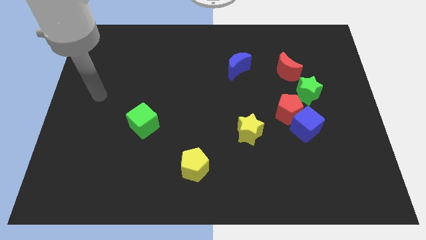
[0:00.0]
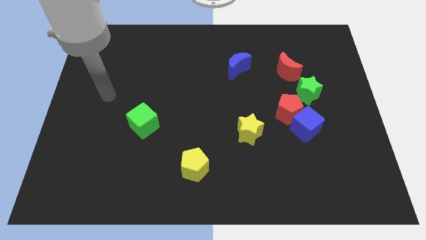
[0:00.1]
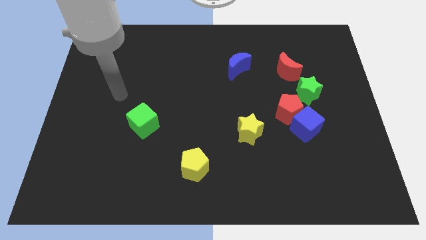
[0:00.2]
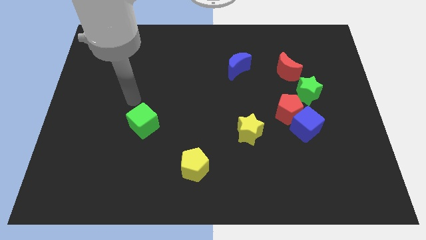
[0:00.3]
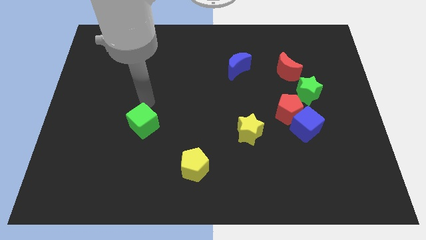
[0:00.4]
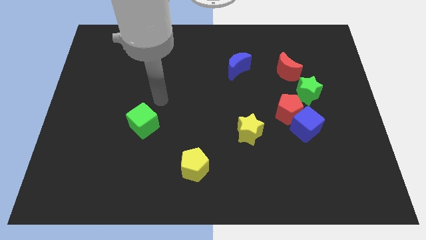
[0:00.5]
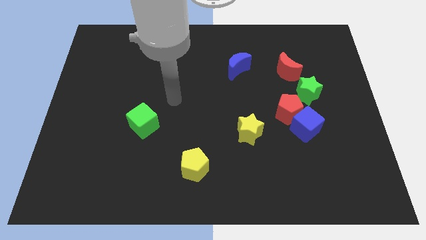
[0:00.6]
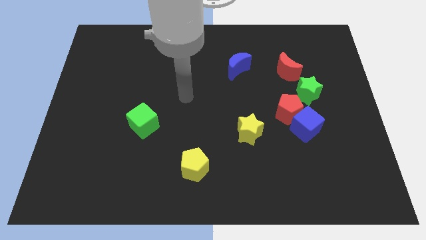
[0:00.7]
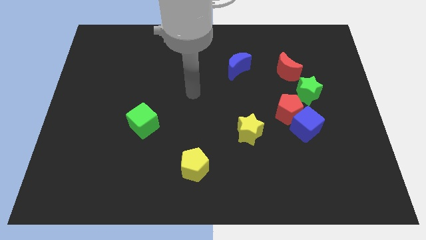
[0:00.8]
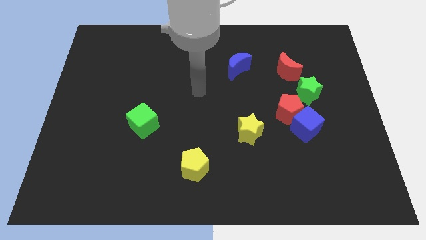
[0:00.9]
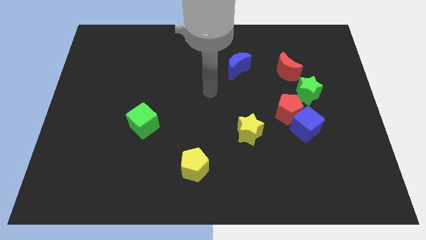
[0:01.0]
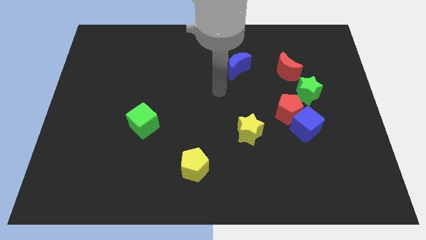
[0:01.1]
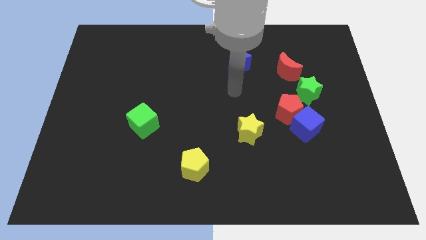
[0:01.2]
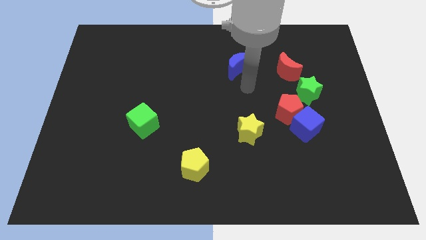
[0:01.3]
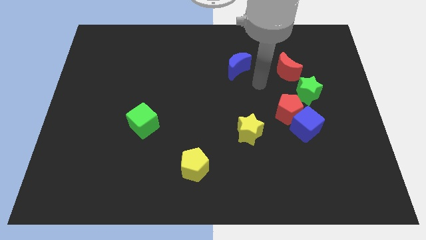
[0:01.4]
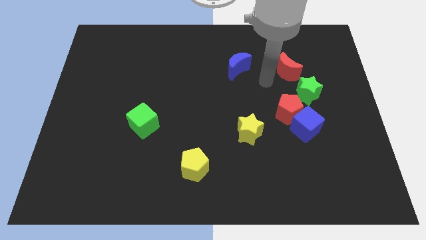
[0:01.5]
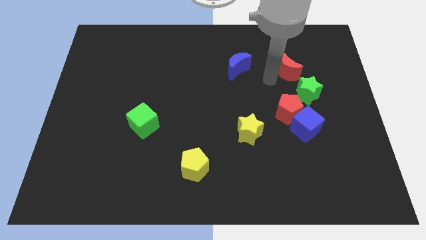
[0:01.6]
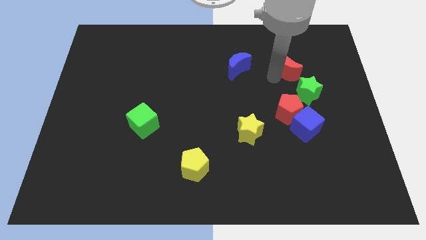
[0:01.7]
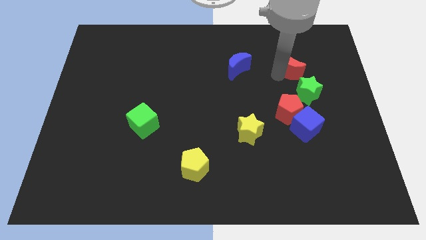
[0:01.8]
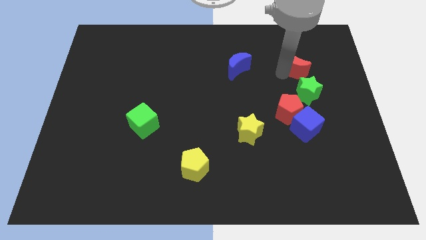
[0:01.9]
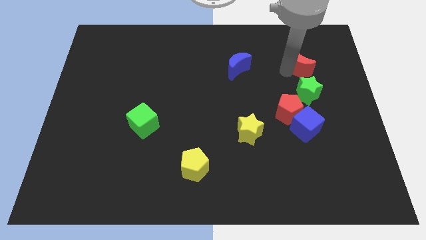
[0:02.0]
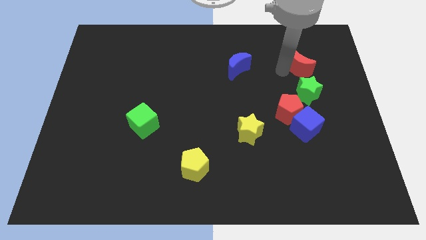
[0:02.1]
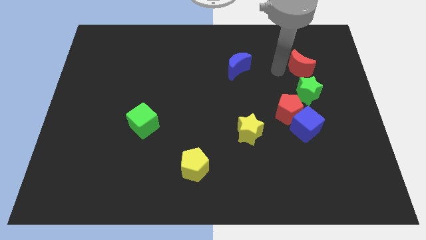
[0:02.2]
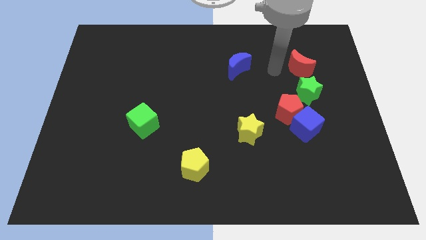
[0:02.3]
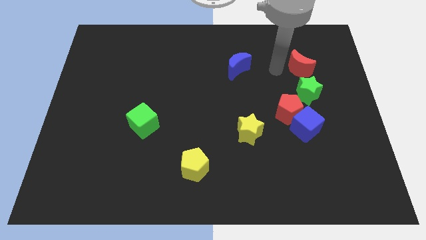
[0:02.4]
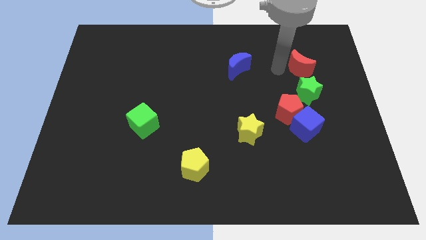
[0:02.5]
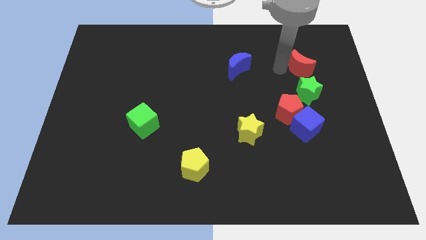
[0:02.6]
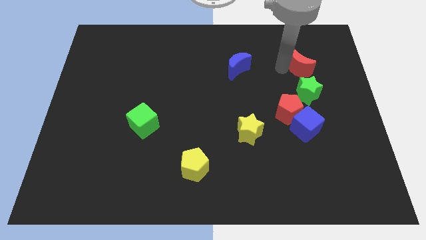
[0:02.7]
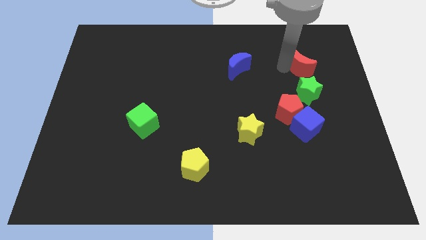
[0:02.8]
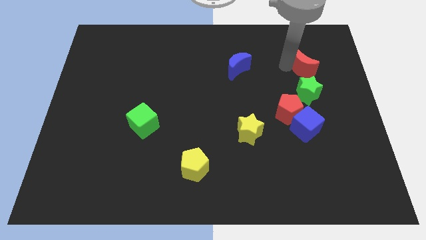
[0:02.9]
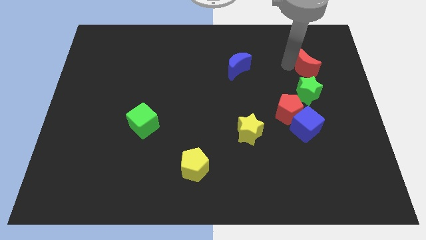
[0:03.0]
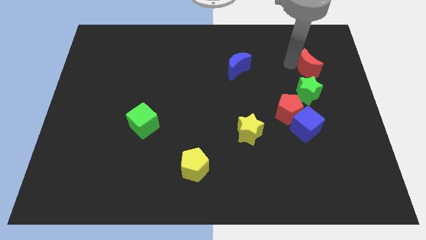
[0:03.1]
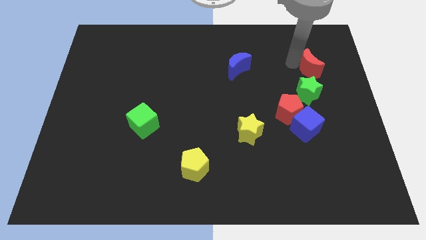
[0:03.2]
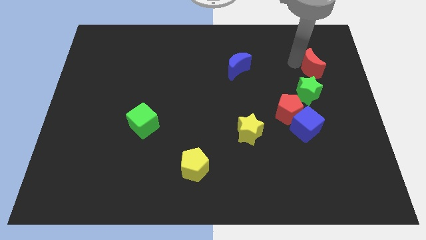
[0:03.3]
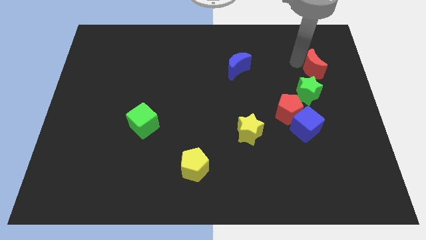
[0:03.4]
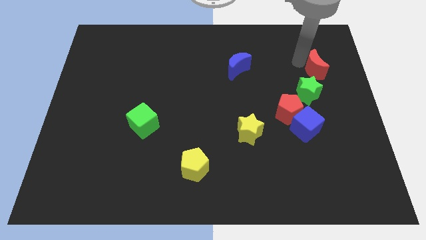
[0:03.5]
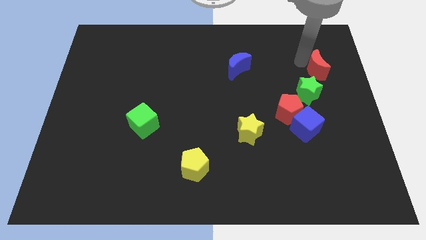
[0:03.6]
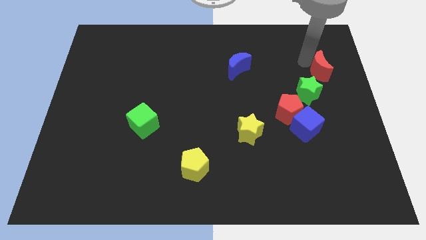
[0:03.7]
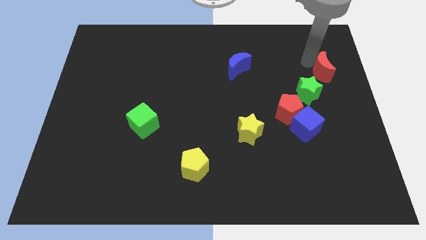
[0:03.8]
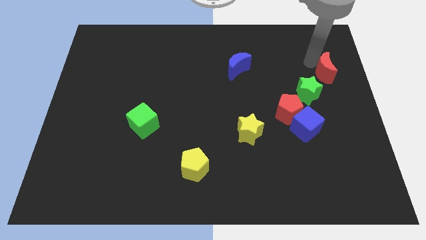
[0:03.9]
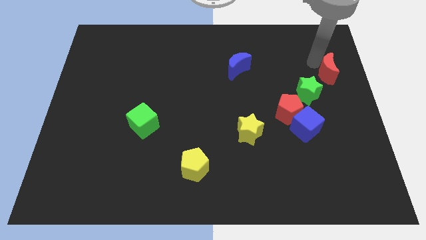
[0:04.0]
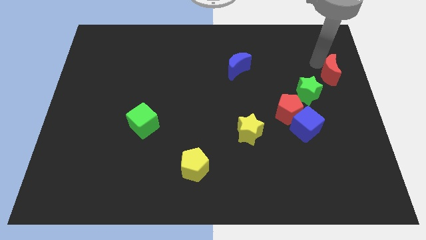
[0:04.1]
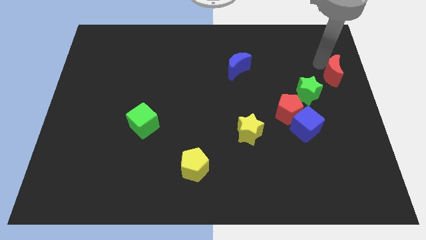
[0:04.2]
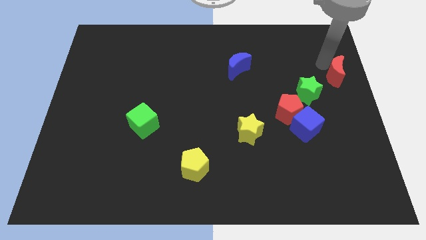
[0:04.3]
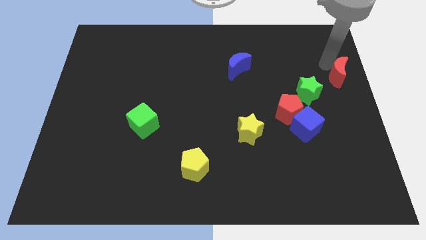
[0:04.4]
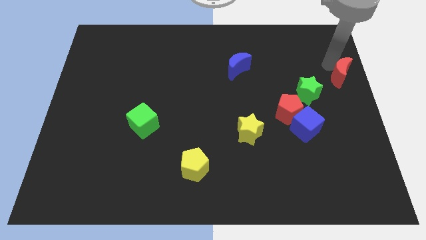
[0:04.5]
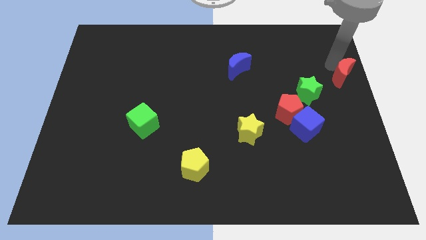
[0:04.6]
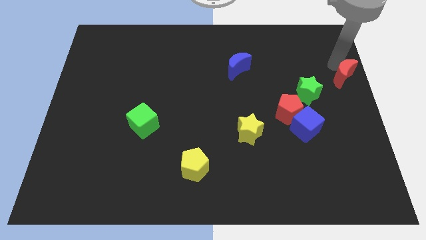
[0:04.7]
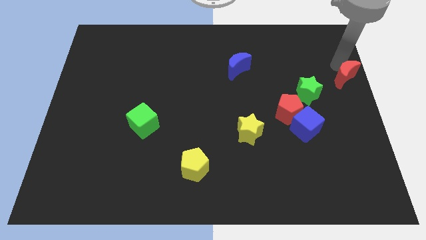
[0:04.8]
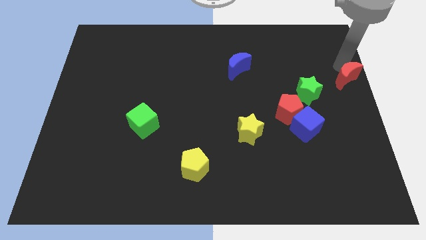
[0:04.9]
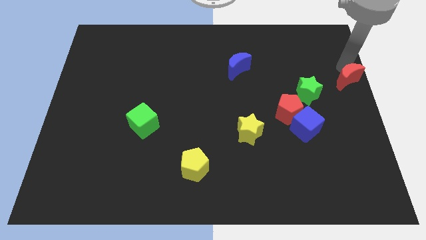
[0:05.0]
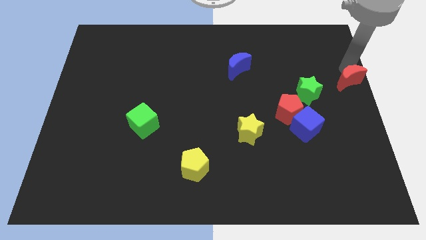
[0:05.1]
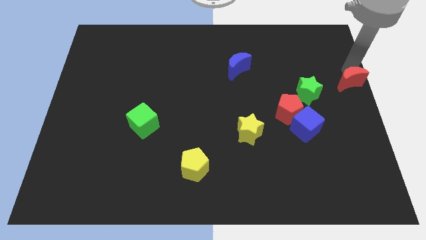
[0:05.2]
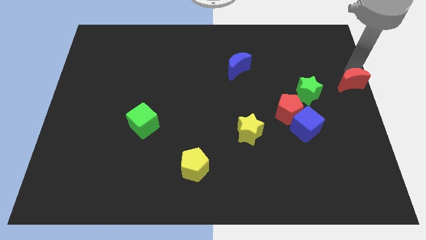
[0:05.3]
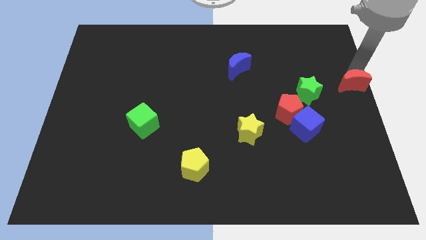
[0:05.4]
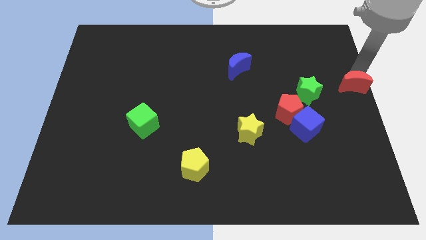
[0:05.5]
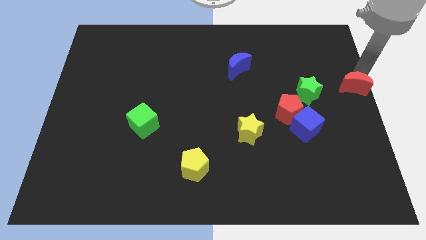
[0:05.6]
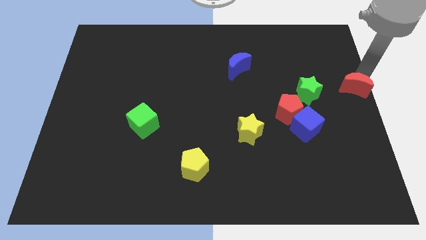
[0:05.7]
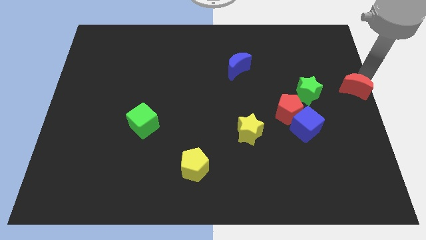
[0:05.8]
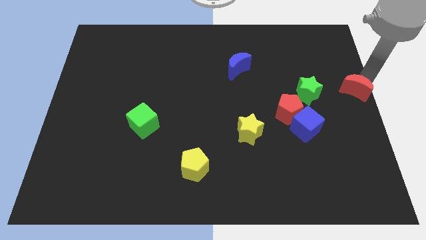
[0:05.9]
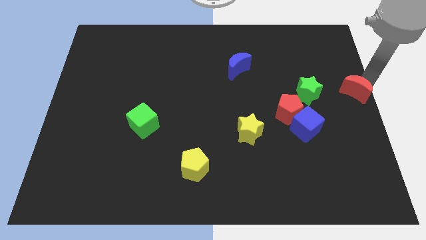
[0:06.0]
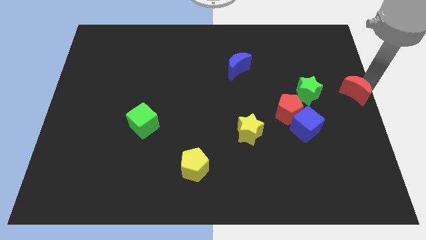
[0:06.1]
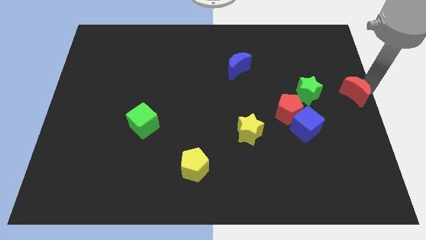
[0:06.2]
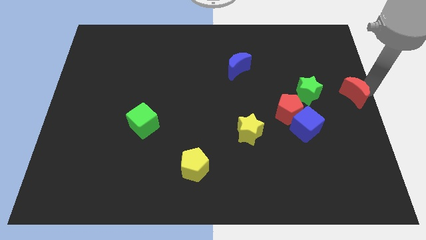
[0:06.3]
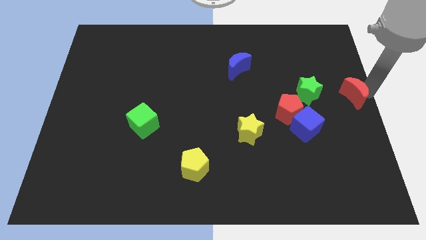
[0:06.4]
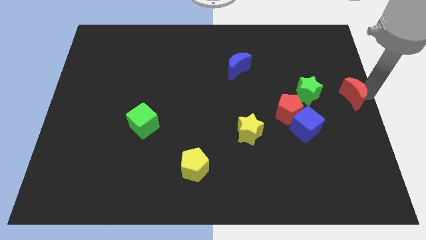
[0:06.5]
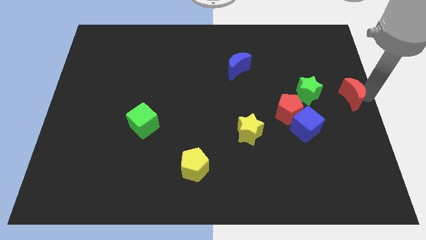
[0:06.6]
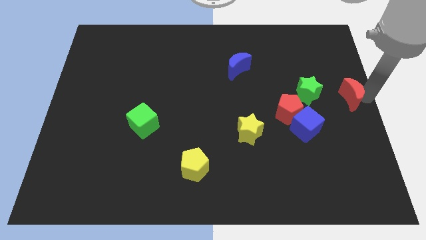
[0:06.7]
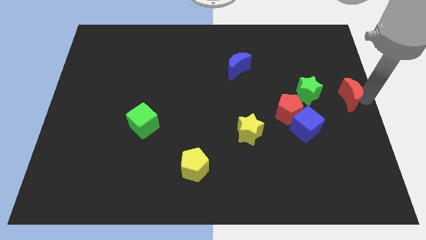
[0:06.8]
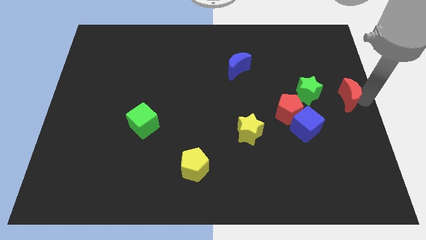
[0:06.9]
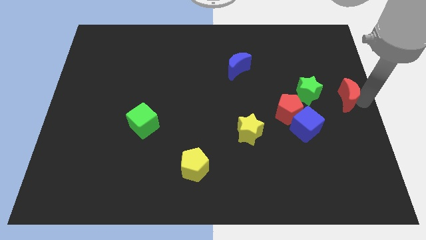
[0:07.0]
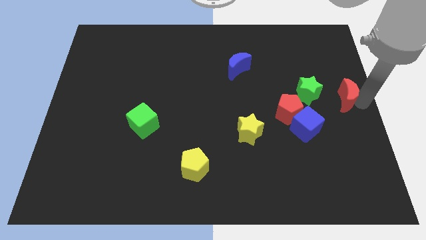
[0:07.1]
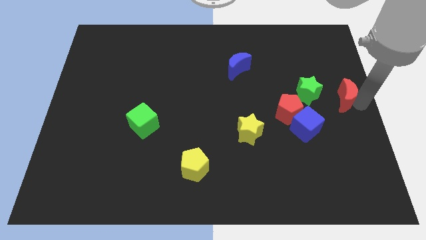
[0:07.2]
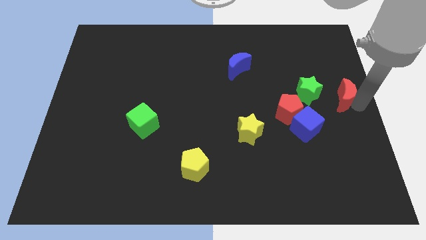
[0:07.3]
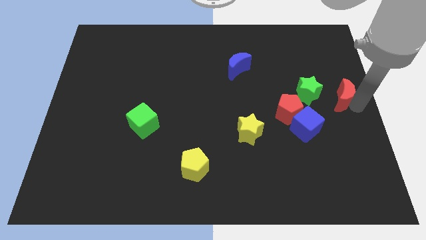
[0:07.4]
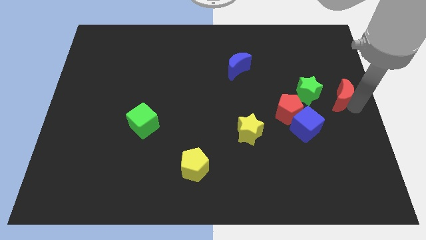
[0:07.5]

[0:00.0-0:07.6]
move the red moon to the top right of the blue cube
